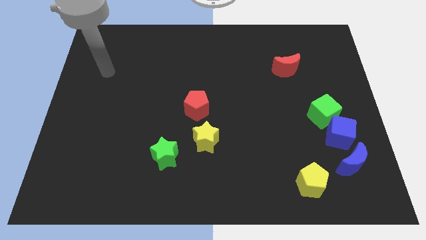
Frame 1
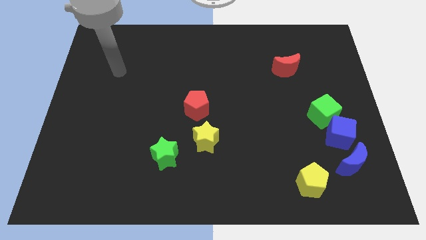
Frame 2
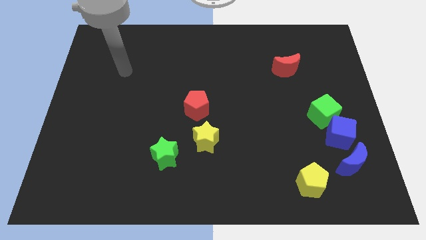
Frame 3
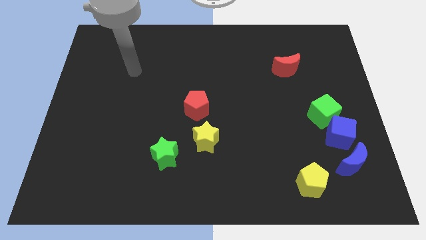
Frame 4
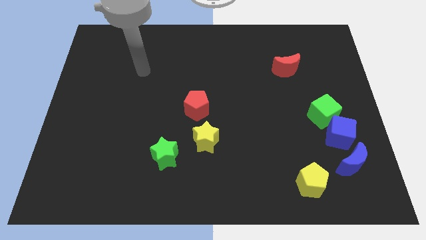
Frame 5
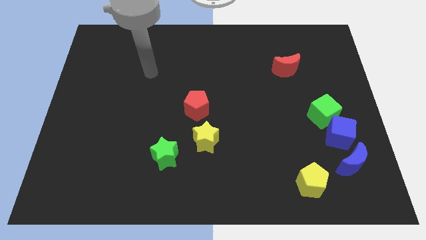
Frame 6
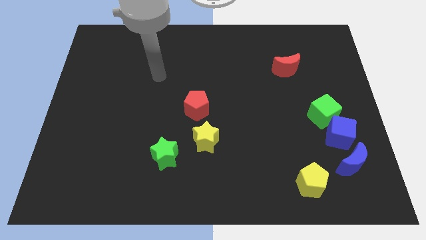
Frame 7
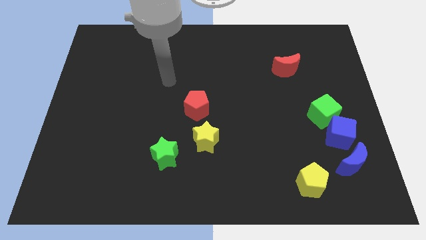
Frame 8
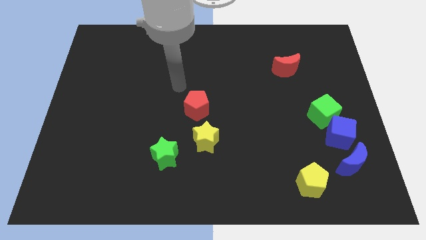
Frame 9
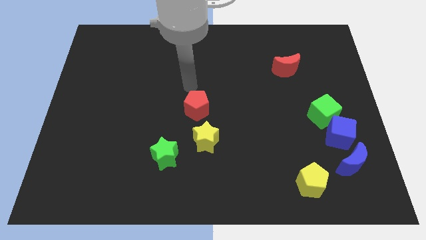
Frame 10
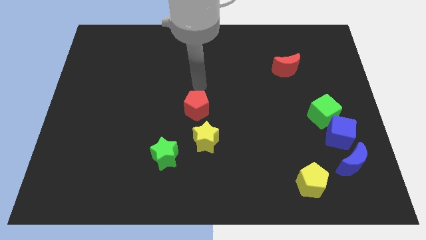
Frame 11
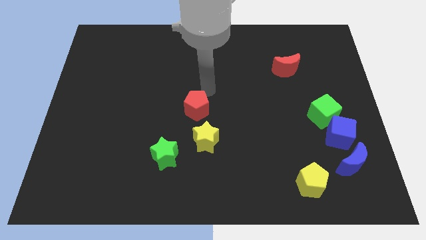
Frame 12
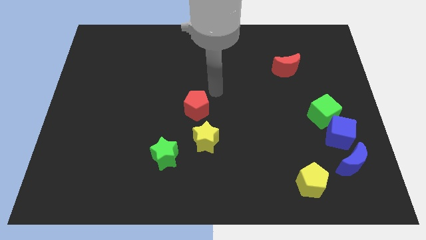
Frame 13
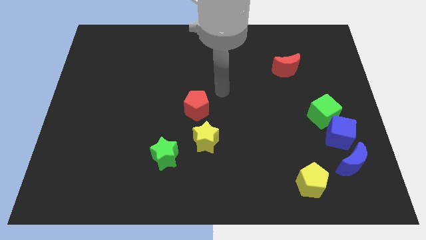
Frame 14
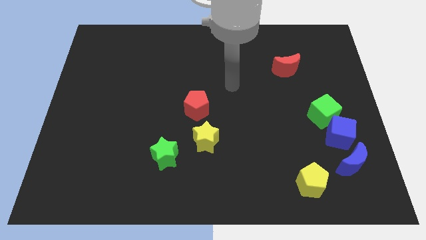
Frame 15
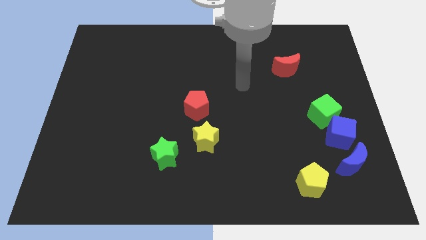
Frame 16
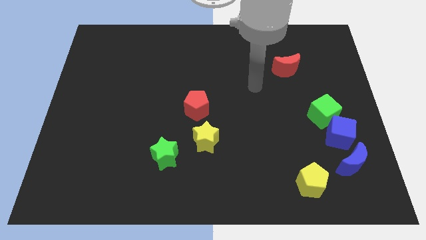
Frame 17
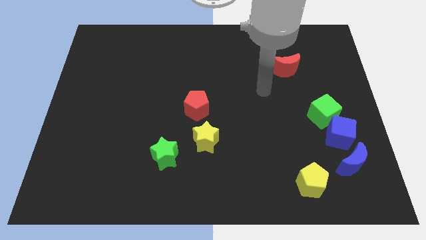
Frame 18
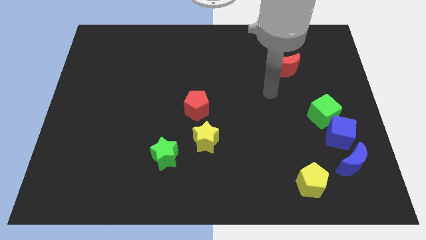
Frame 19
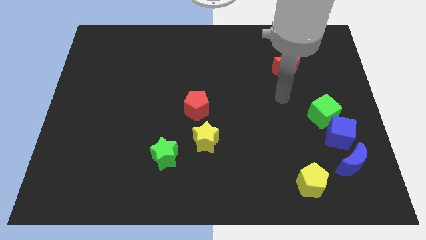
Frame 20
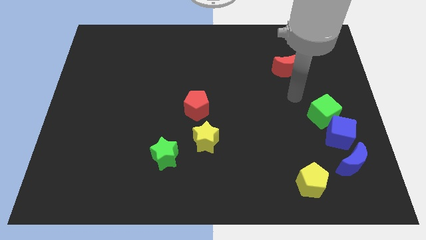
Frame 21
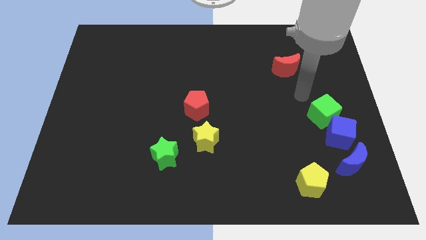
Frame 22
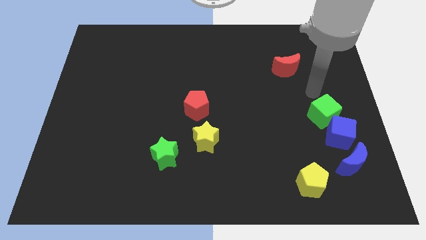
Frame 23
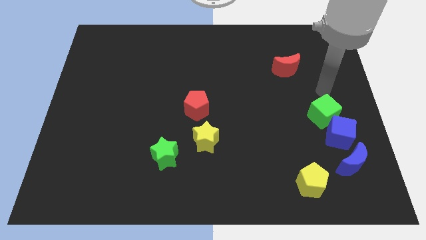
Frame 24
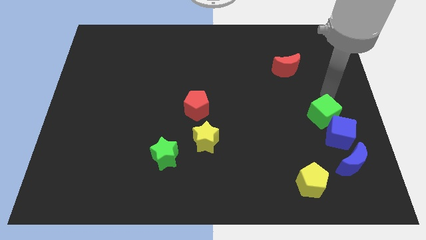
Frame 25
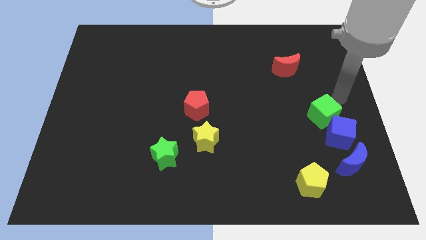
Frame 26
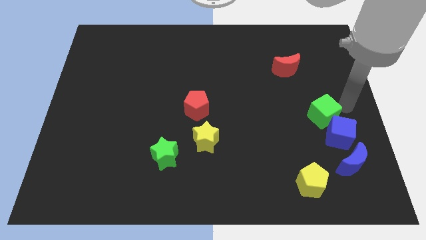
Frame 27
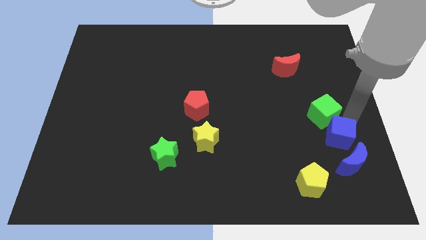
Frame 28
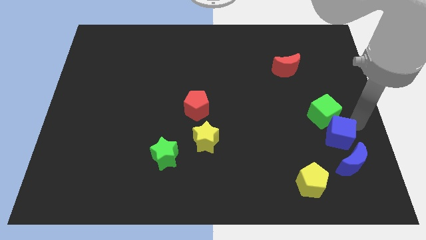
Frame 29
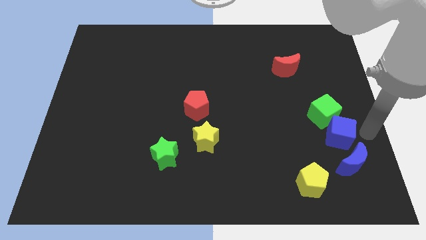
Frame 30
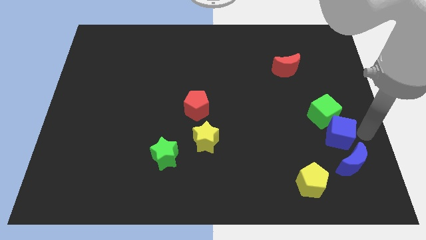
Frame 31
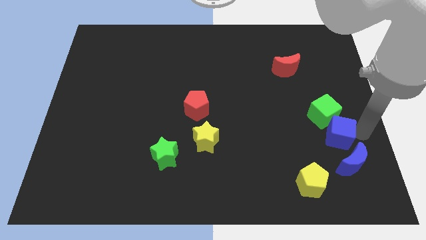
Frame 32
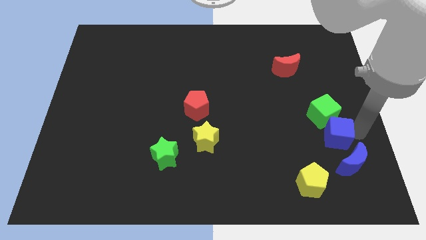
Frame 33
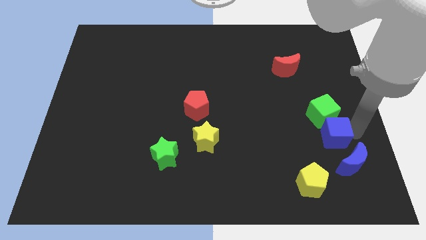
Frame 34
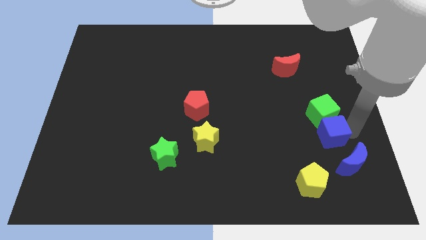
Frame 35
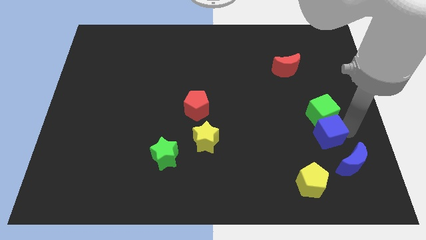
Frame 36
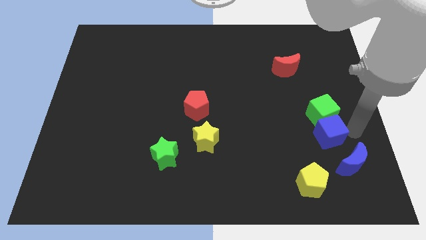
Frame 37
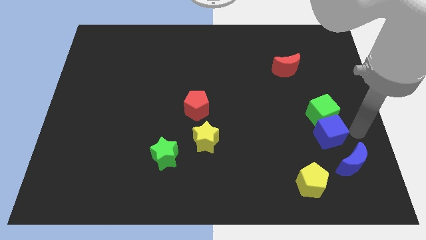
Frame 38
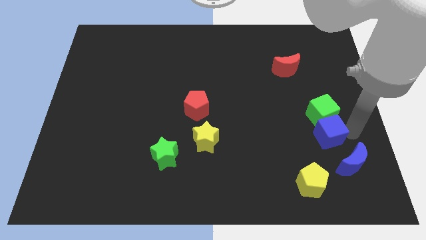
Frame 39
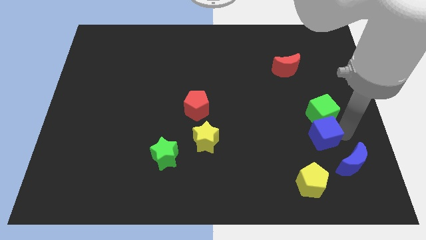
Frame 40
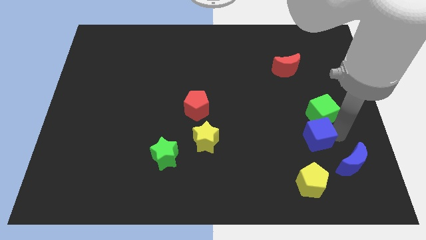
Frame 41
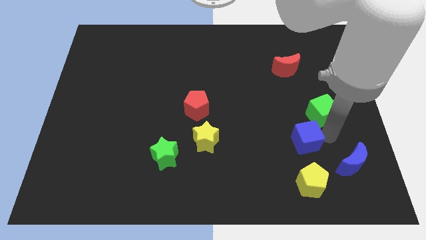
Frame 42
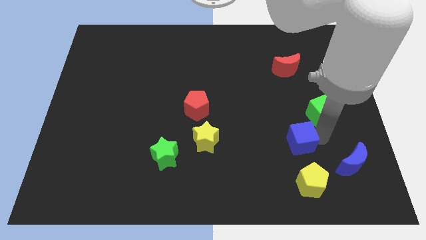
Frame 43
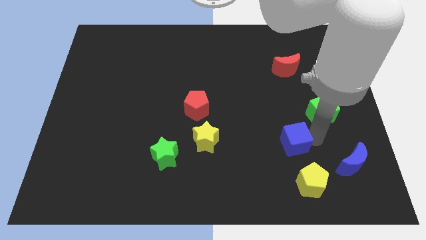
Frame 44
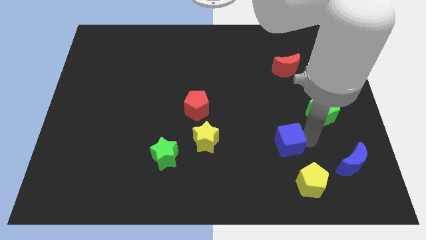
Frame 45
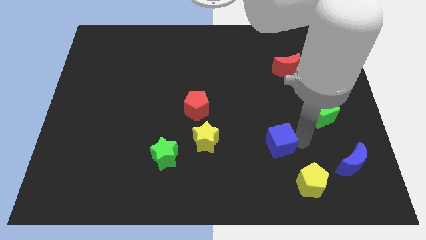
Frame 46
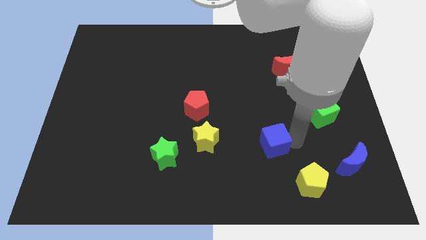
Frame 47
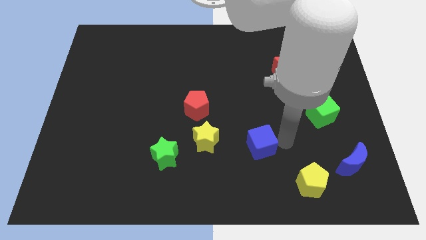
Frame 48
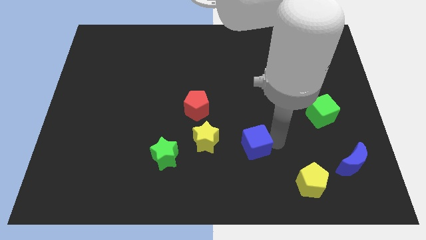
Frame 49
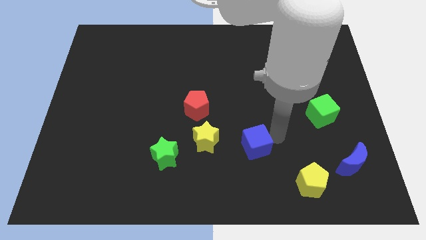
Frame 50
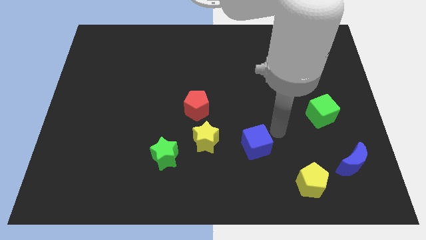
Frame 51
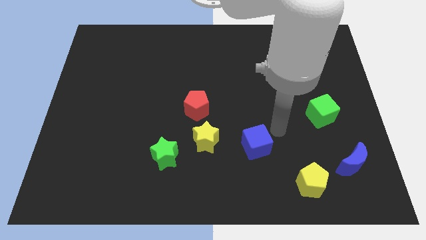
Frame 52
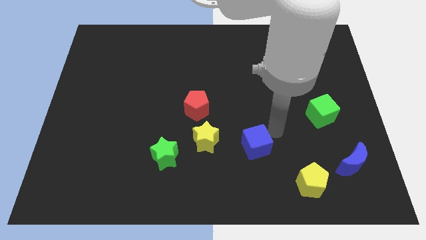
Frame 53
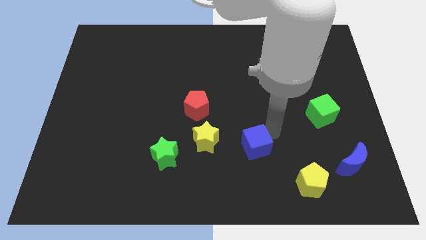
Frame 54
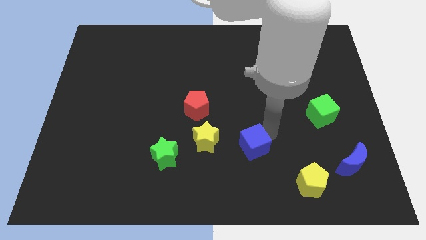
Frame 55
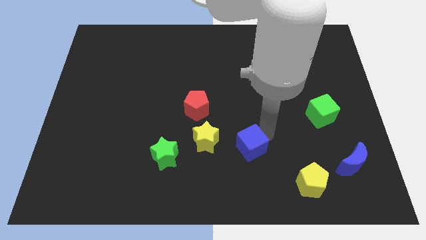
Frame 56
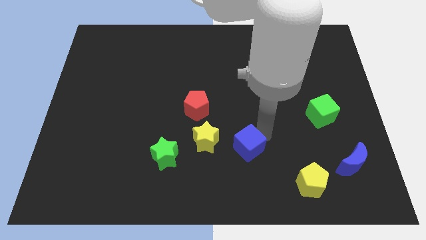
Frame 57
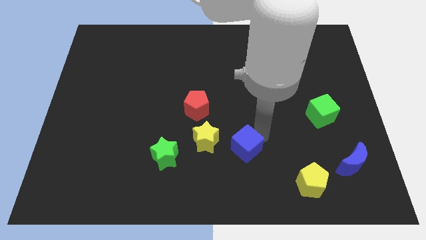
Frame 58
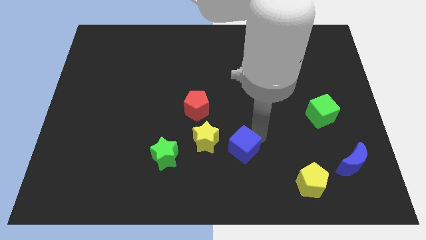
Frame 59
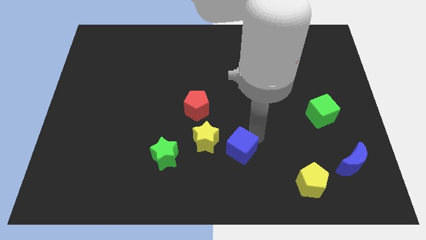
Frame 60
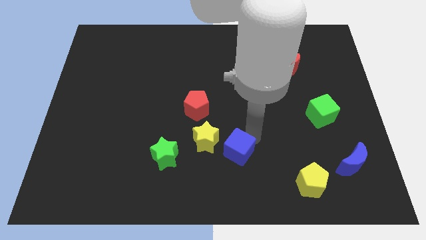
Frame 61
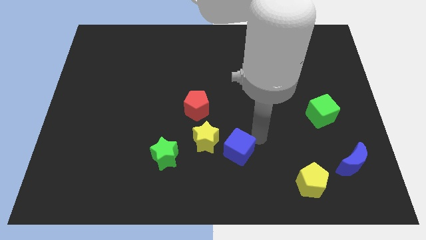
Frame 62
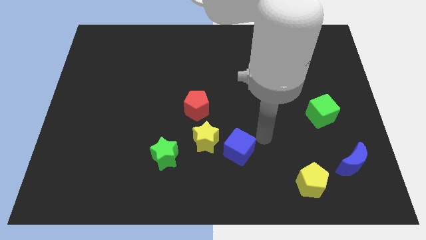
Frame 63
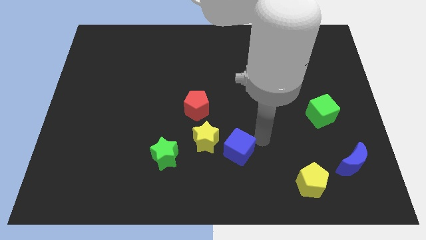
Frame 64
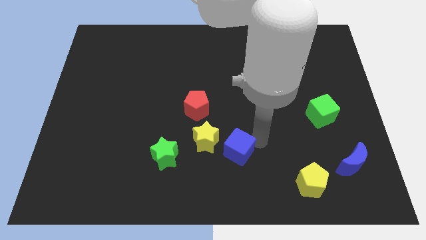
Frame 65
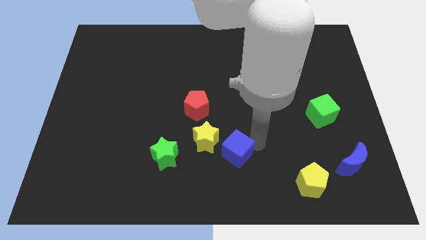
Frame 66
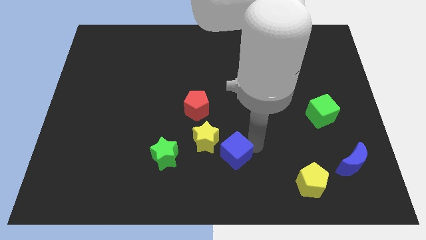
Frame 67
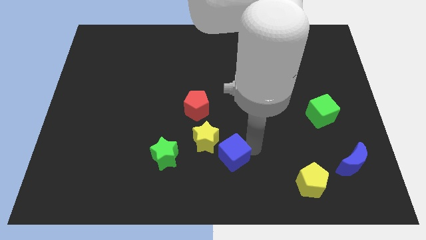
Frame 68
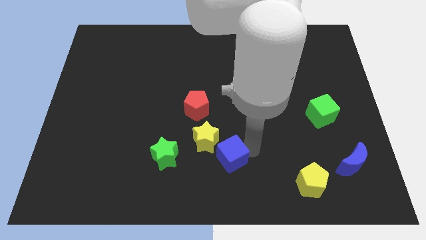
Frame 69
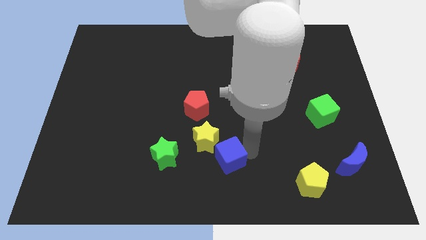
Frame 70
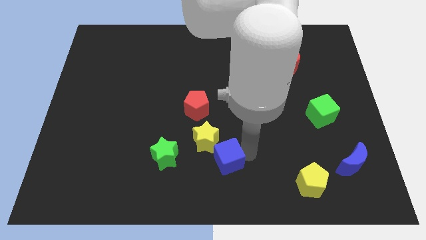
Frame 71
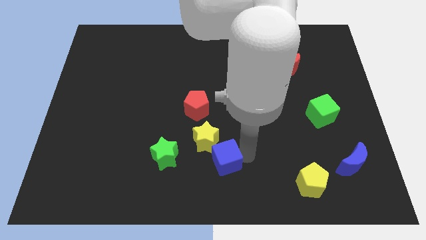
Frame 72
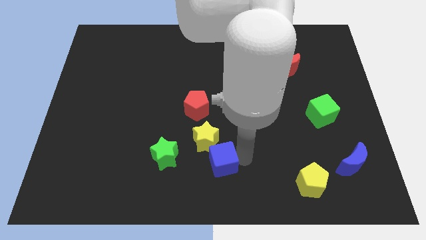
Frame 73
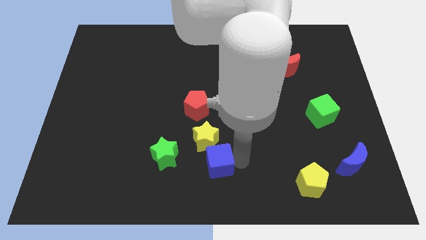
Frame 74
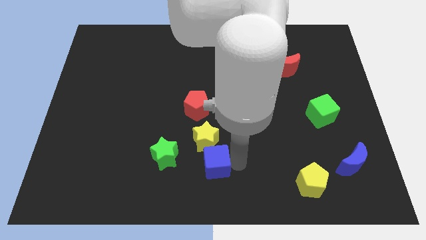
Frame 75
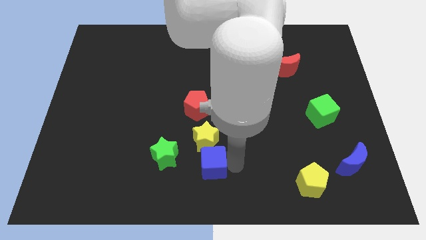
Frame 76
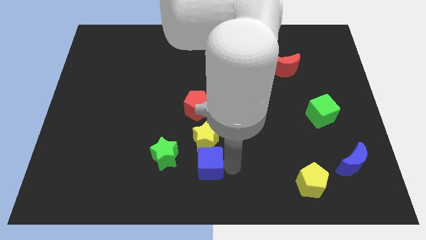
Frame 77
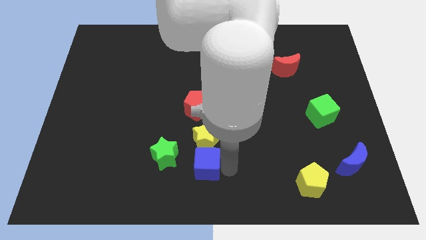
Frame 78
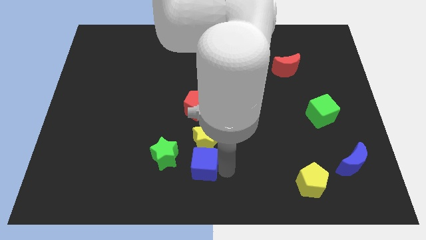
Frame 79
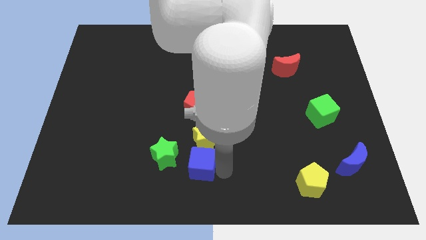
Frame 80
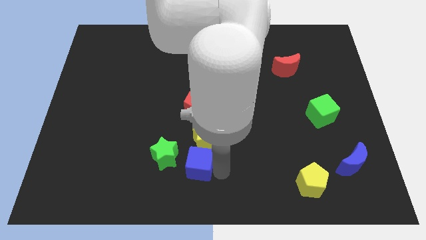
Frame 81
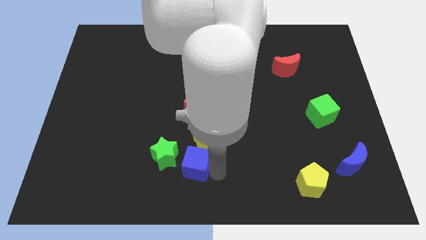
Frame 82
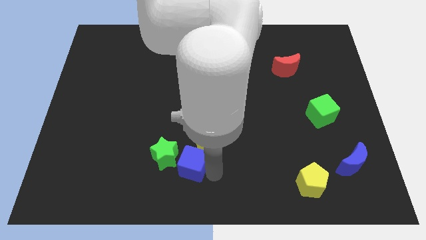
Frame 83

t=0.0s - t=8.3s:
push the blue cube to the green star
